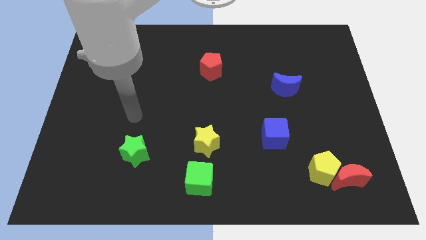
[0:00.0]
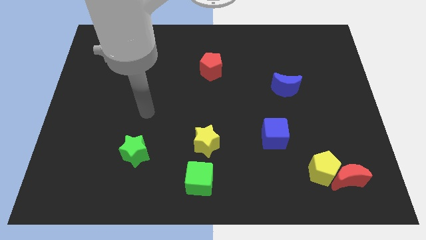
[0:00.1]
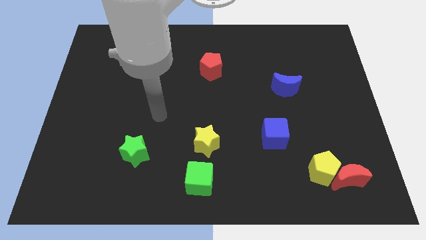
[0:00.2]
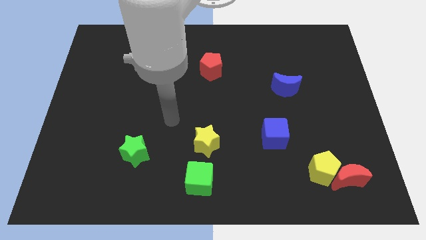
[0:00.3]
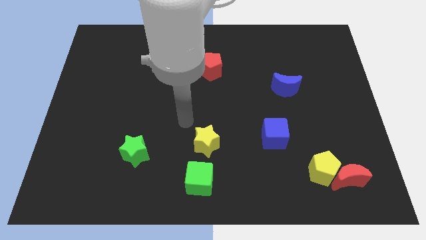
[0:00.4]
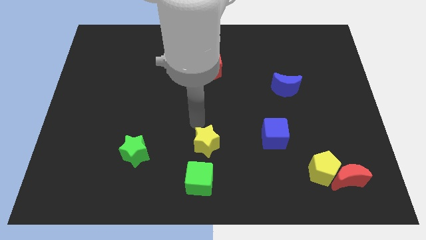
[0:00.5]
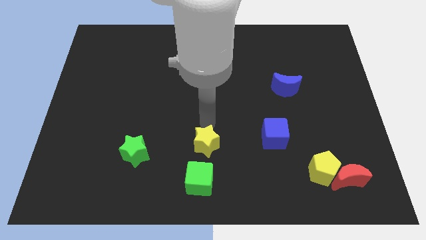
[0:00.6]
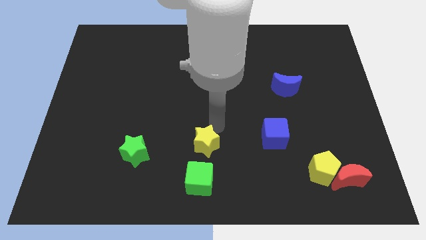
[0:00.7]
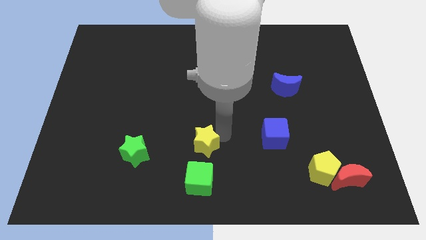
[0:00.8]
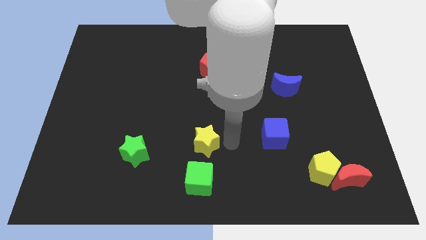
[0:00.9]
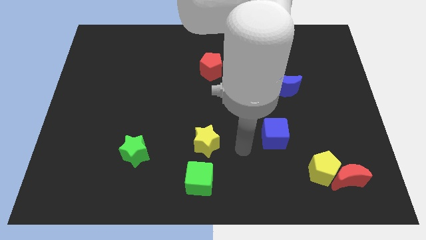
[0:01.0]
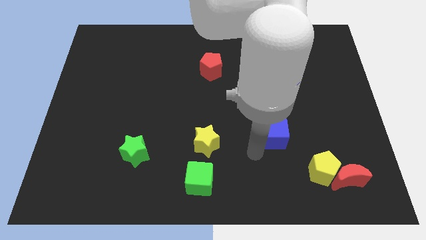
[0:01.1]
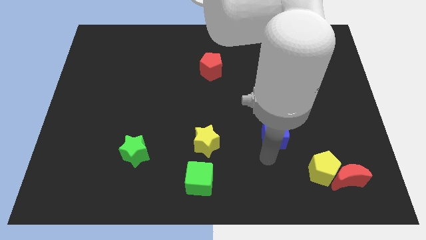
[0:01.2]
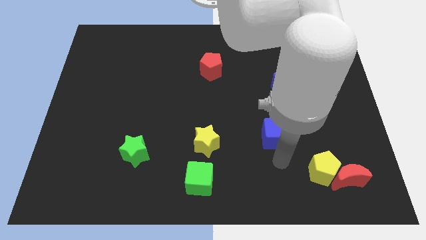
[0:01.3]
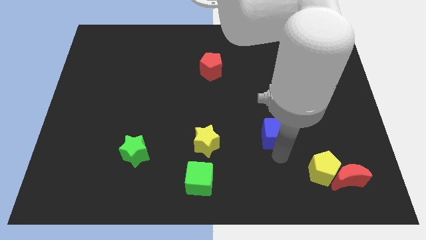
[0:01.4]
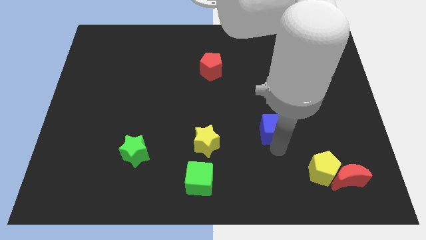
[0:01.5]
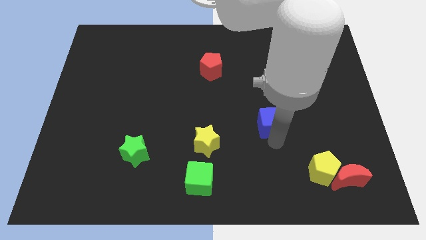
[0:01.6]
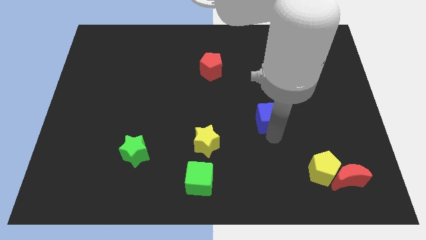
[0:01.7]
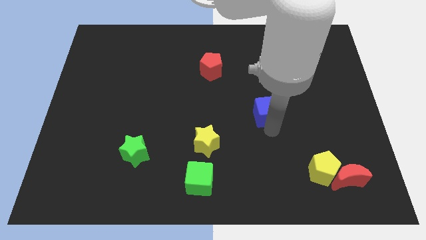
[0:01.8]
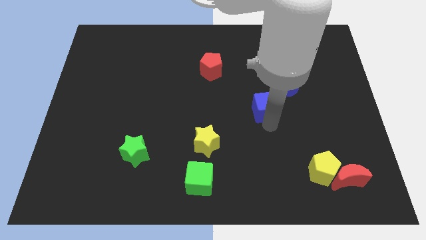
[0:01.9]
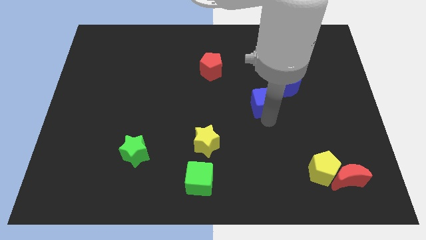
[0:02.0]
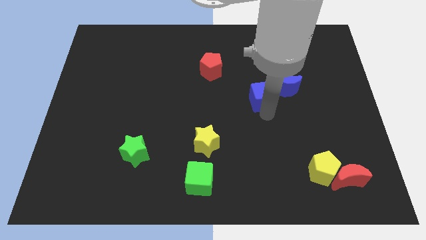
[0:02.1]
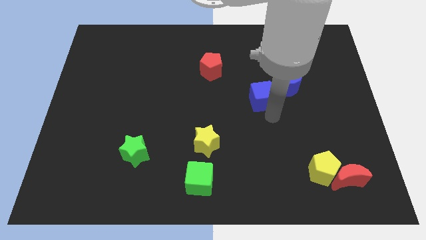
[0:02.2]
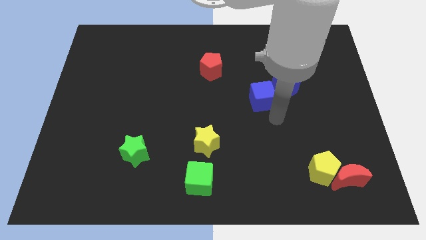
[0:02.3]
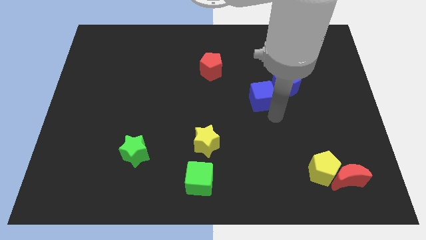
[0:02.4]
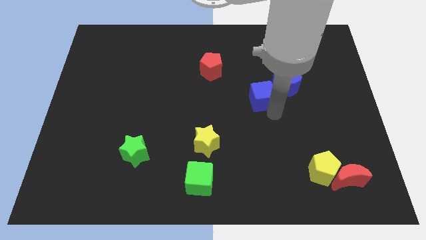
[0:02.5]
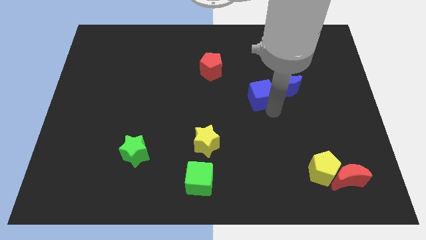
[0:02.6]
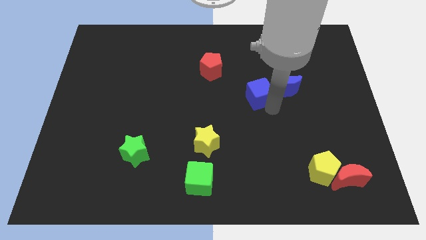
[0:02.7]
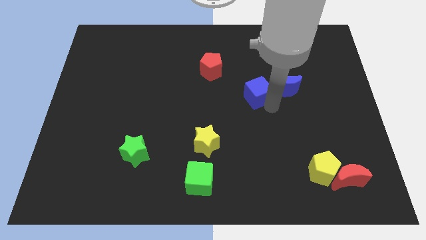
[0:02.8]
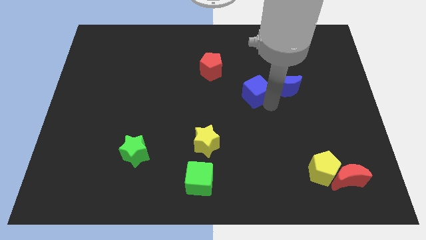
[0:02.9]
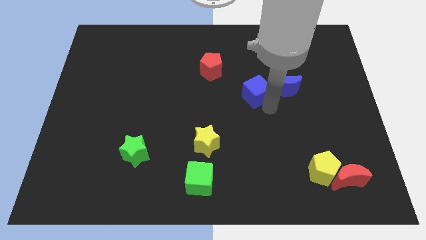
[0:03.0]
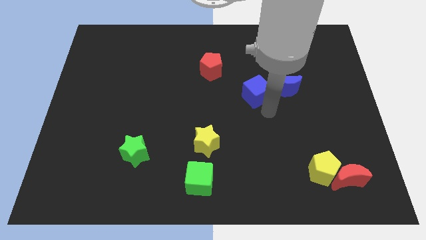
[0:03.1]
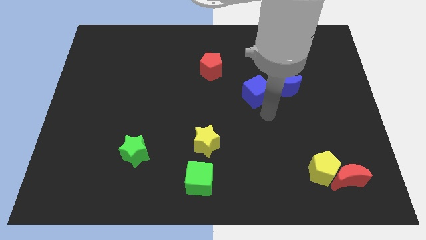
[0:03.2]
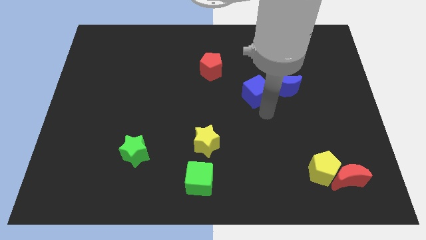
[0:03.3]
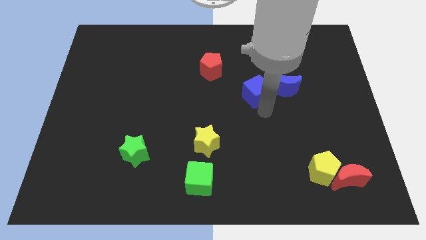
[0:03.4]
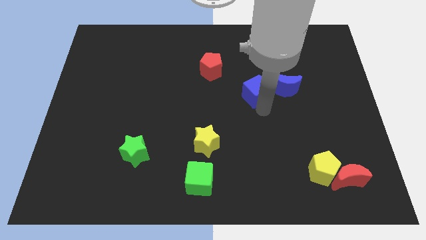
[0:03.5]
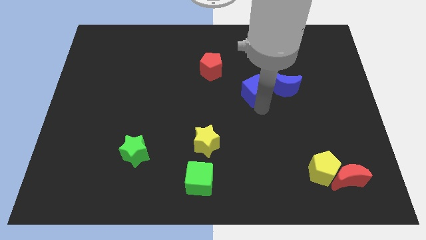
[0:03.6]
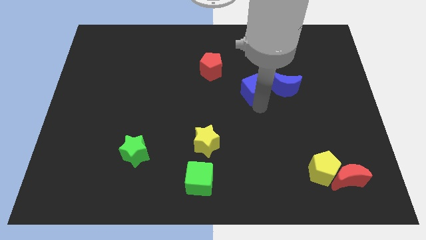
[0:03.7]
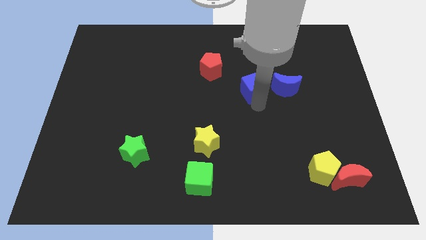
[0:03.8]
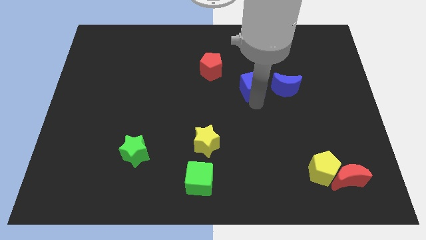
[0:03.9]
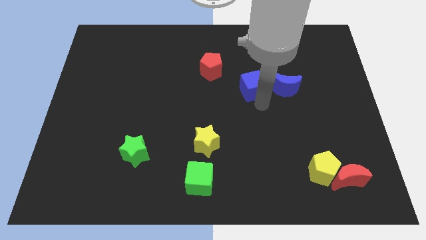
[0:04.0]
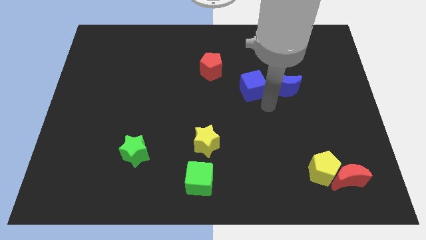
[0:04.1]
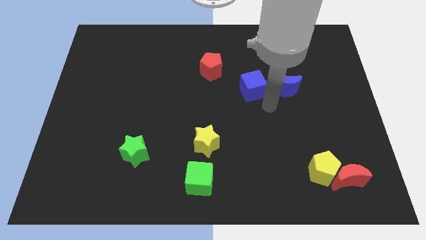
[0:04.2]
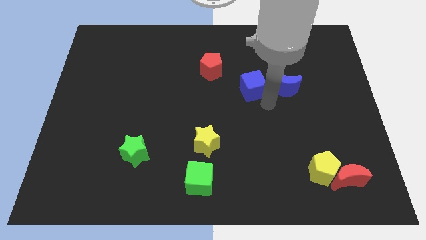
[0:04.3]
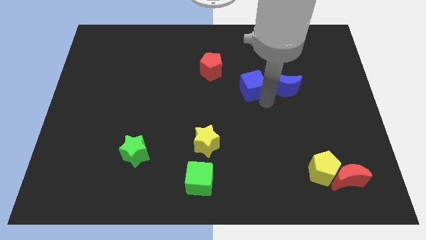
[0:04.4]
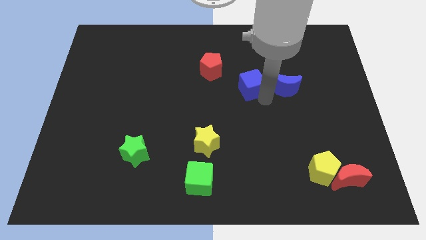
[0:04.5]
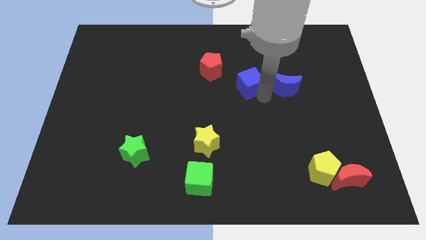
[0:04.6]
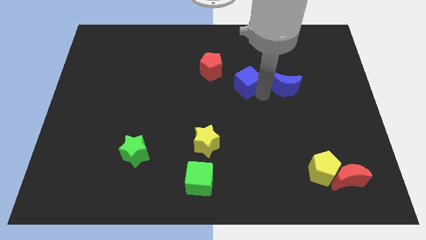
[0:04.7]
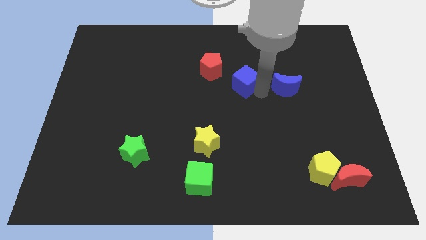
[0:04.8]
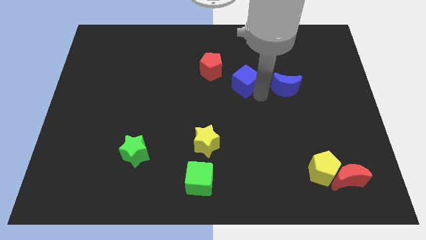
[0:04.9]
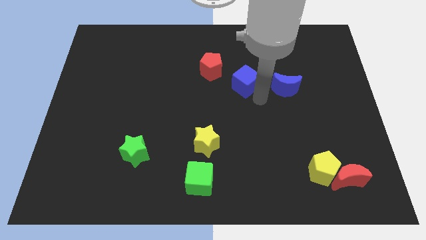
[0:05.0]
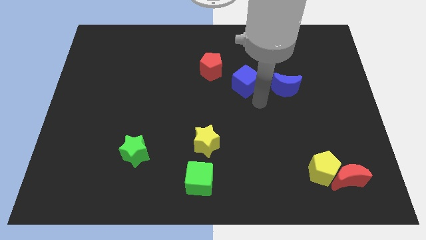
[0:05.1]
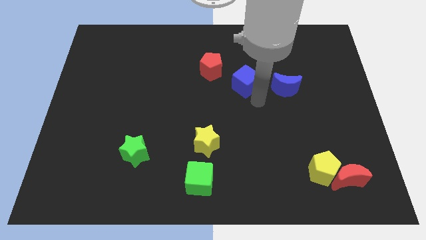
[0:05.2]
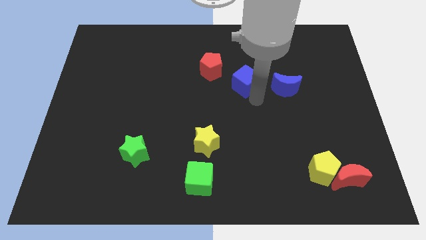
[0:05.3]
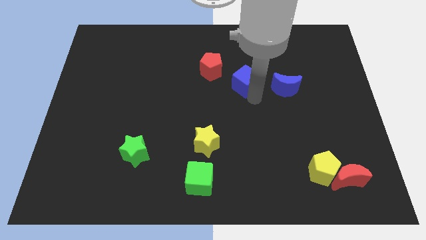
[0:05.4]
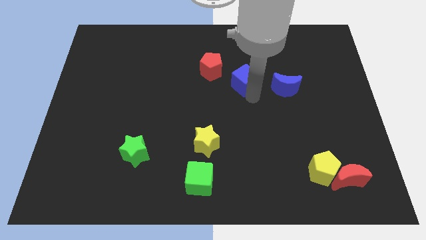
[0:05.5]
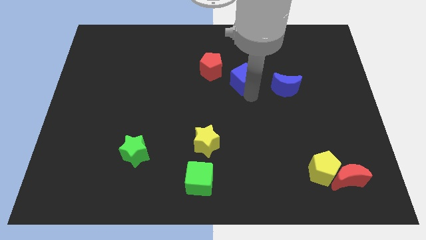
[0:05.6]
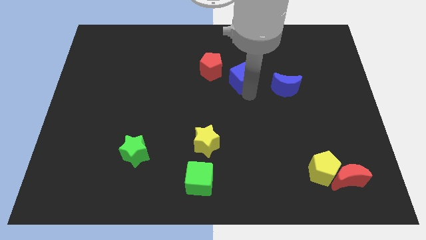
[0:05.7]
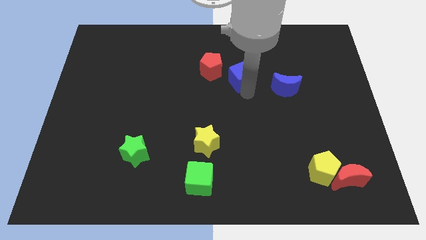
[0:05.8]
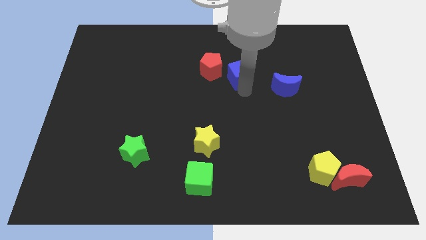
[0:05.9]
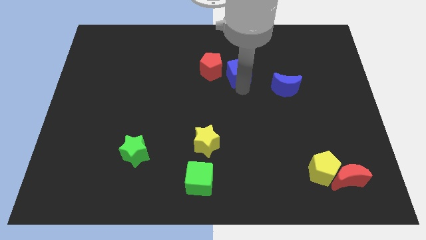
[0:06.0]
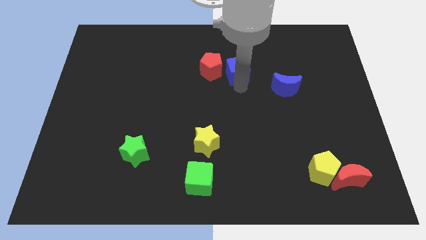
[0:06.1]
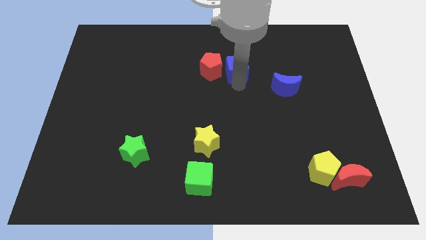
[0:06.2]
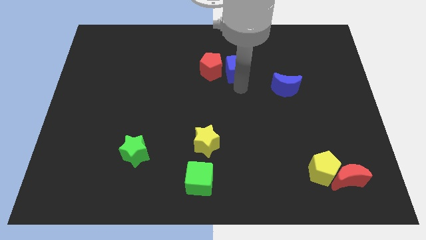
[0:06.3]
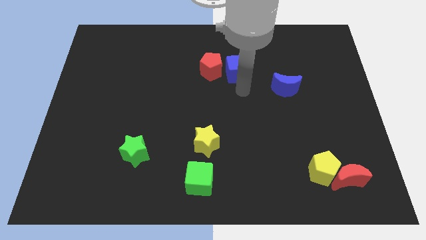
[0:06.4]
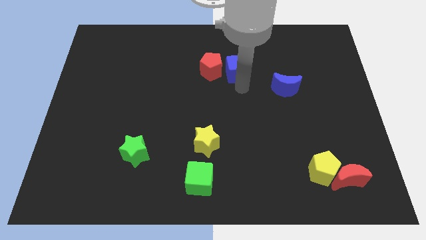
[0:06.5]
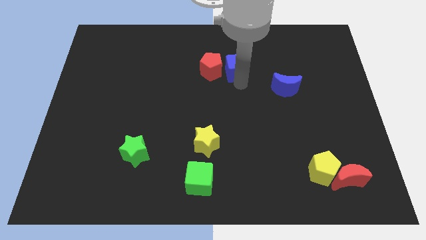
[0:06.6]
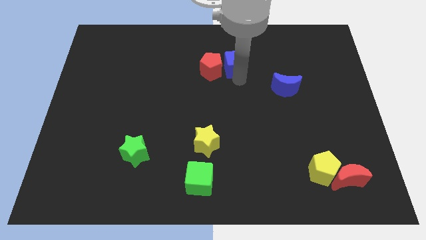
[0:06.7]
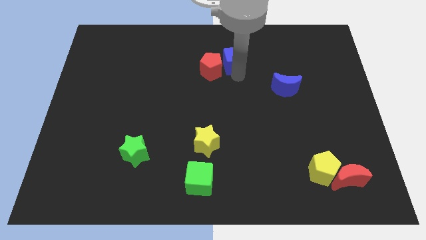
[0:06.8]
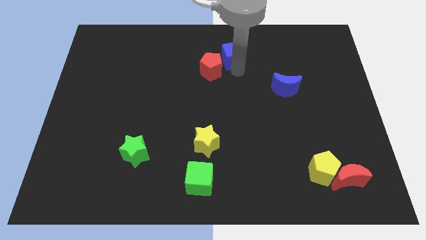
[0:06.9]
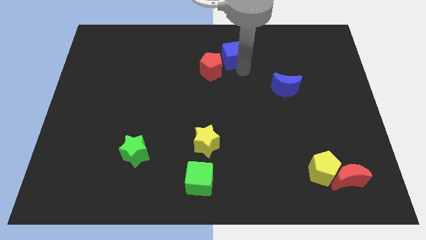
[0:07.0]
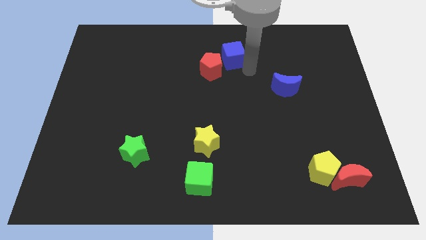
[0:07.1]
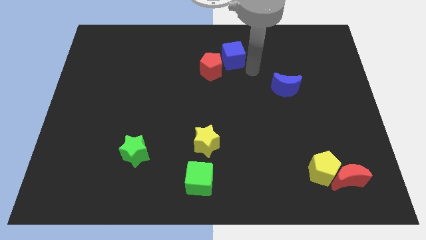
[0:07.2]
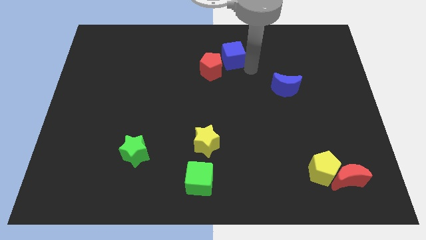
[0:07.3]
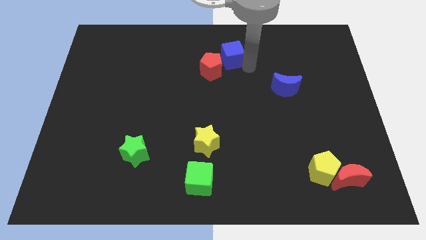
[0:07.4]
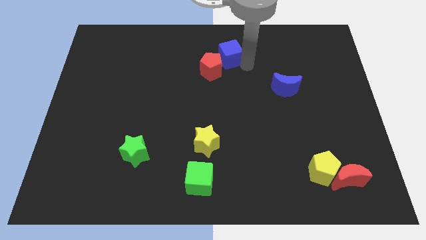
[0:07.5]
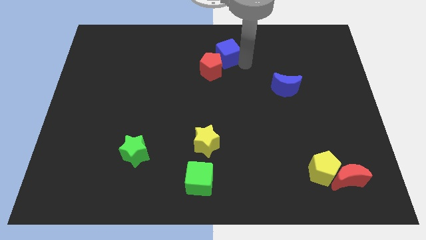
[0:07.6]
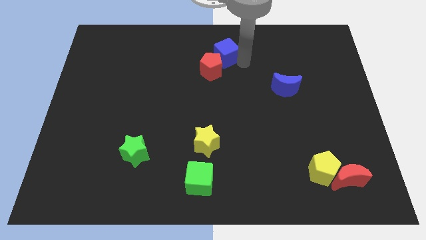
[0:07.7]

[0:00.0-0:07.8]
slide the blue cube to the towards your base
